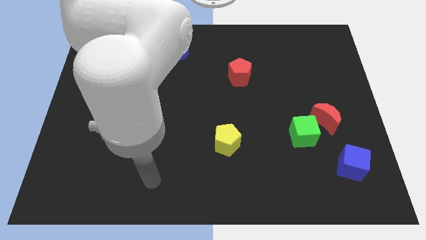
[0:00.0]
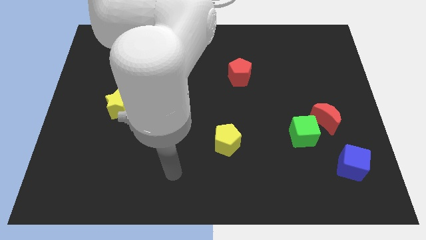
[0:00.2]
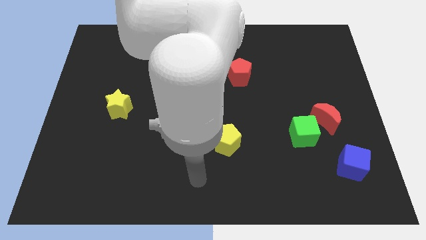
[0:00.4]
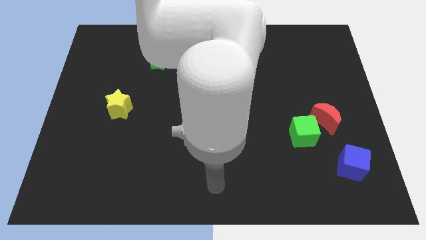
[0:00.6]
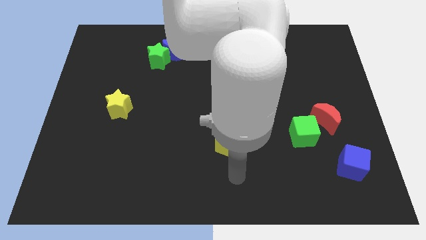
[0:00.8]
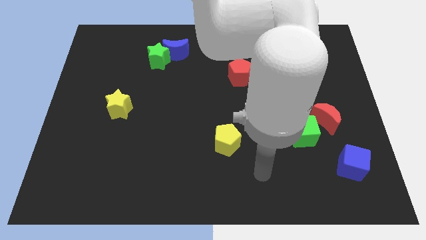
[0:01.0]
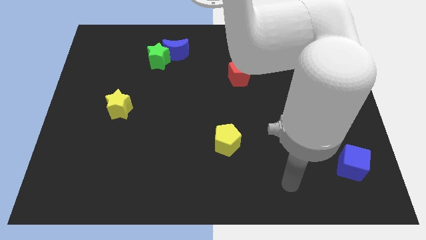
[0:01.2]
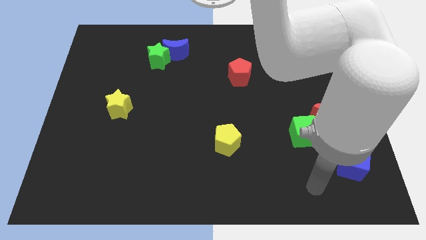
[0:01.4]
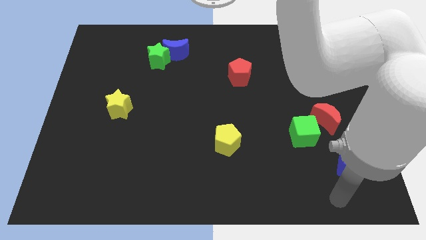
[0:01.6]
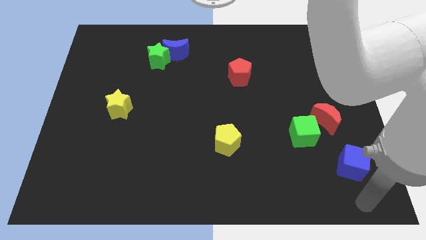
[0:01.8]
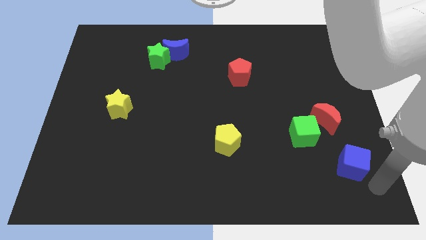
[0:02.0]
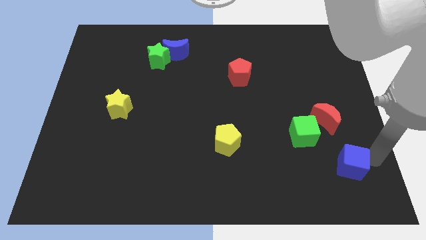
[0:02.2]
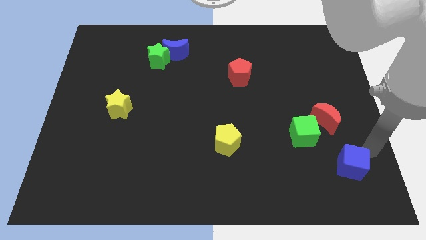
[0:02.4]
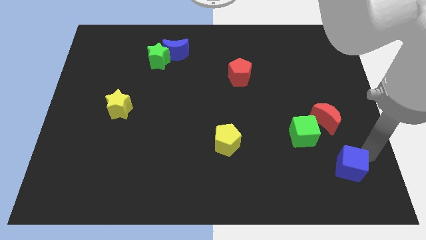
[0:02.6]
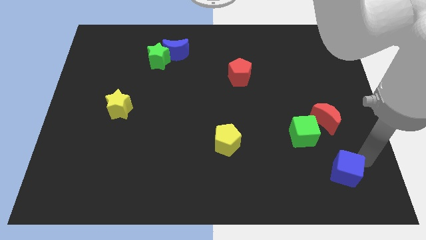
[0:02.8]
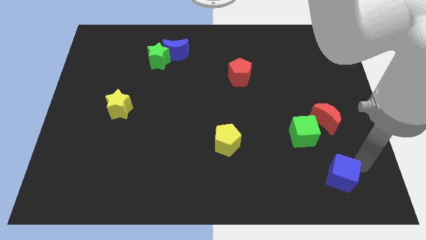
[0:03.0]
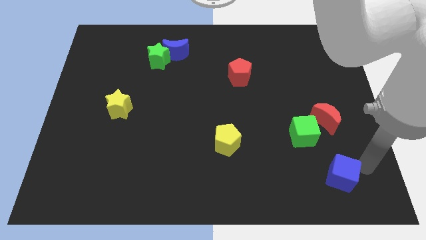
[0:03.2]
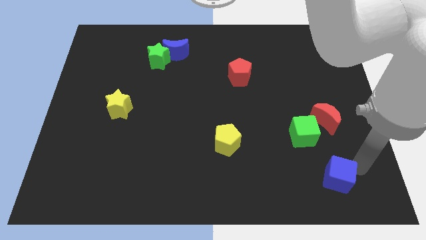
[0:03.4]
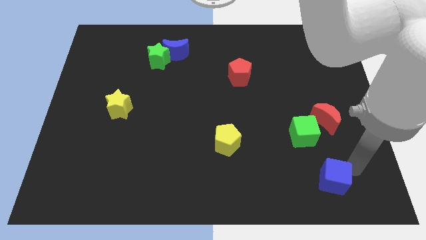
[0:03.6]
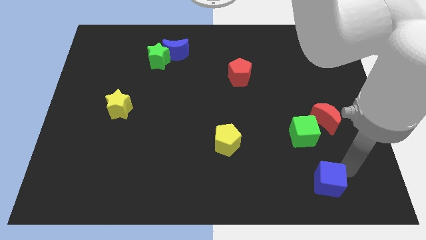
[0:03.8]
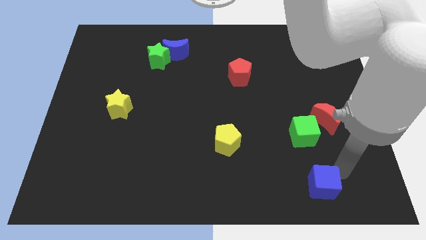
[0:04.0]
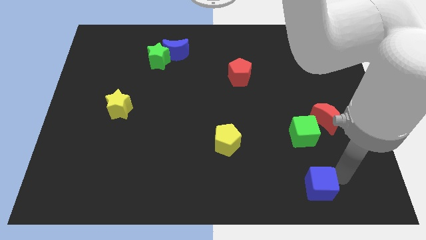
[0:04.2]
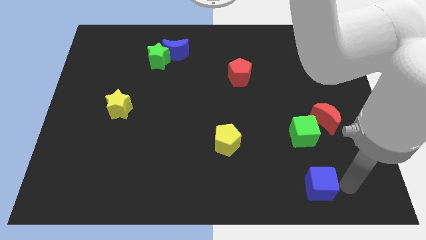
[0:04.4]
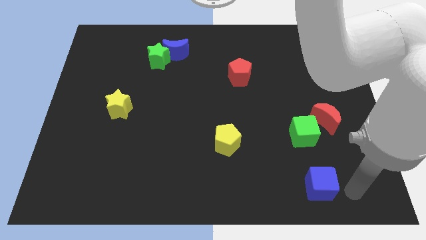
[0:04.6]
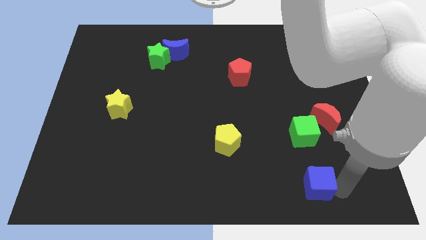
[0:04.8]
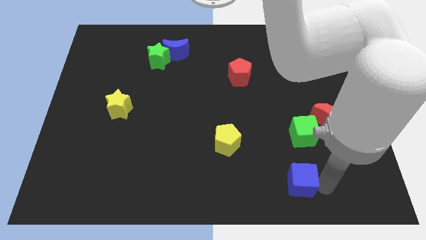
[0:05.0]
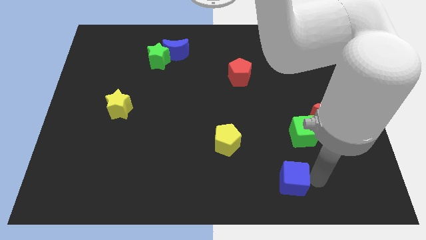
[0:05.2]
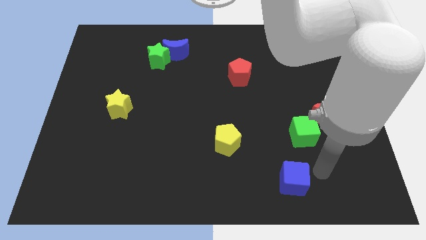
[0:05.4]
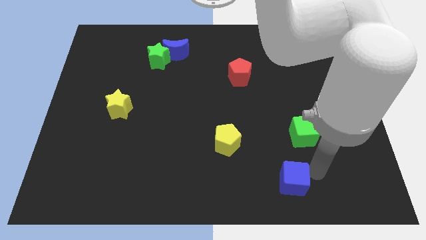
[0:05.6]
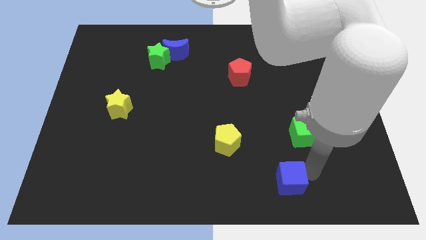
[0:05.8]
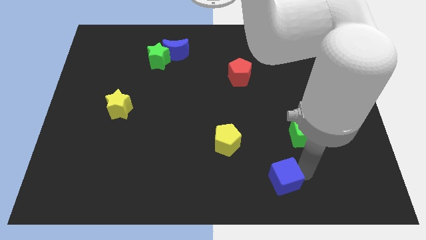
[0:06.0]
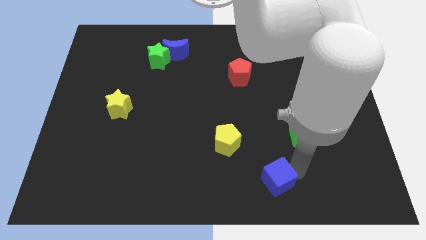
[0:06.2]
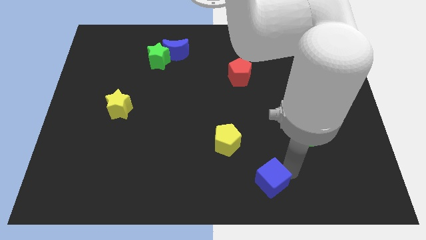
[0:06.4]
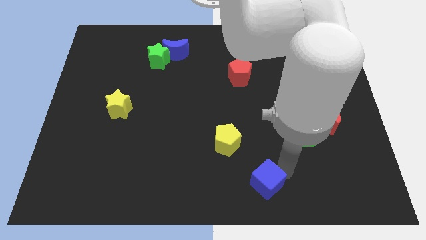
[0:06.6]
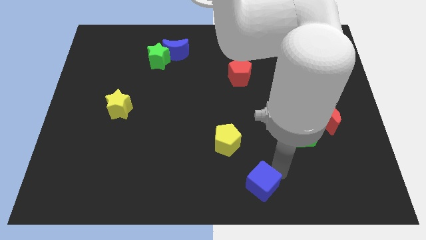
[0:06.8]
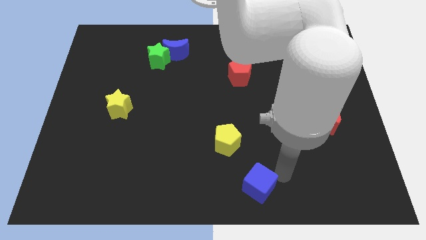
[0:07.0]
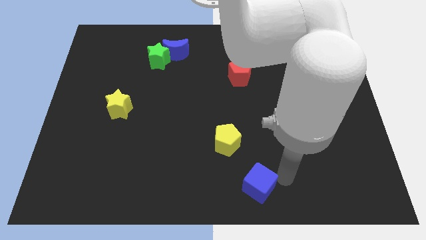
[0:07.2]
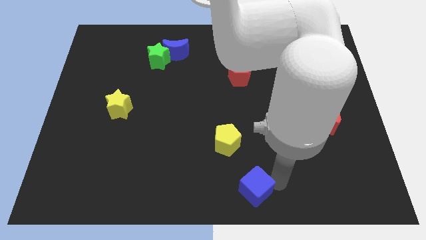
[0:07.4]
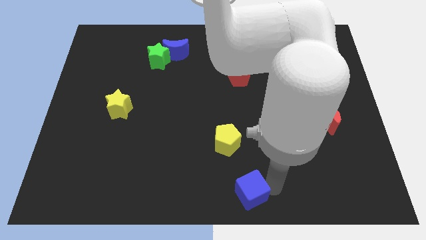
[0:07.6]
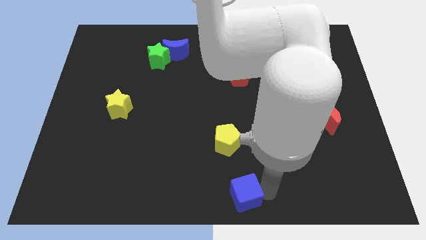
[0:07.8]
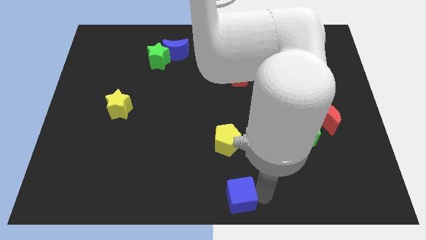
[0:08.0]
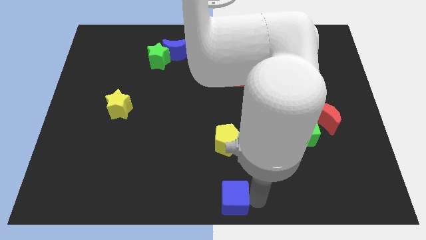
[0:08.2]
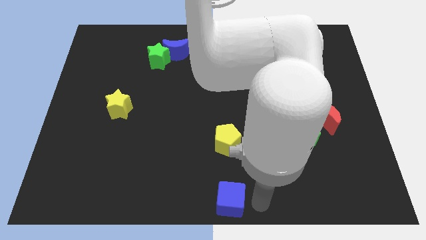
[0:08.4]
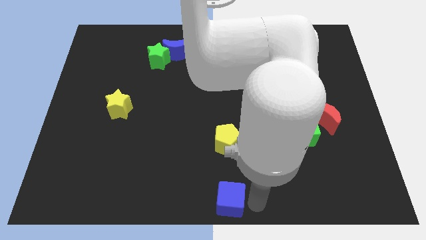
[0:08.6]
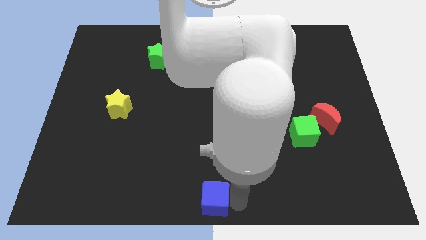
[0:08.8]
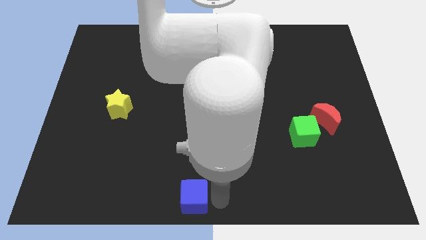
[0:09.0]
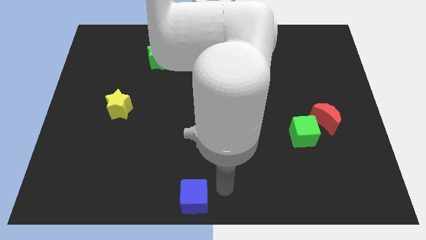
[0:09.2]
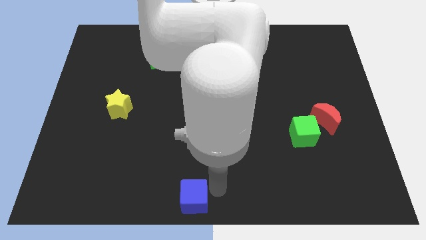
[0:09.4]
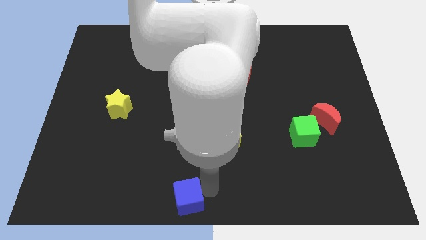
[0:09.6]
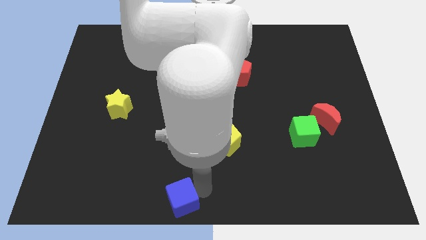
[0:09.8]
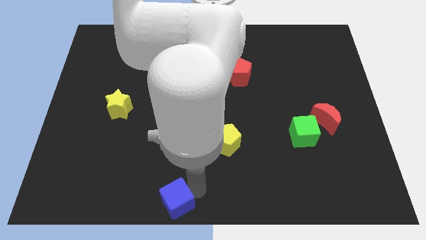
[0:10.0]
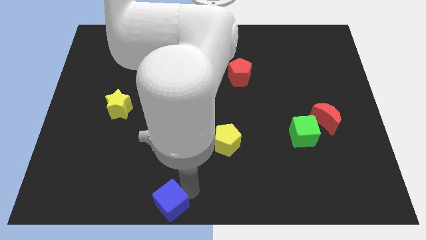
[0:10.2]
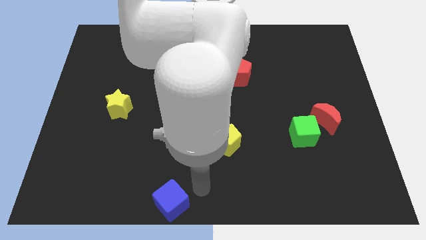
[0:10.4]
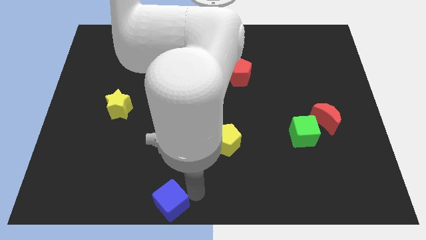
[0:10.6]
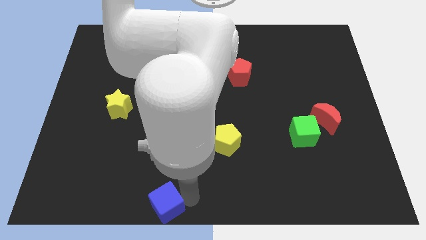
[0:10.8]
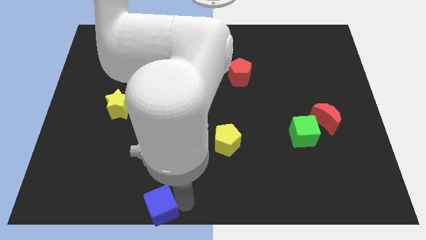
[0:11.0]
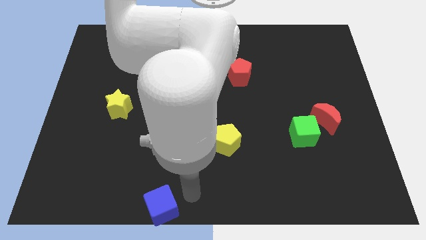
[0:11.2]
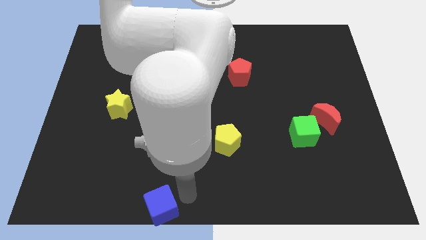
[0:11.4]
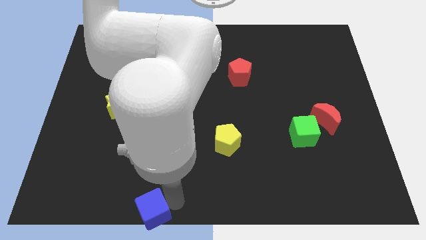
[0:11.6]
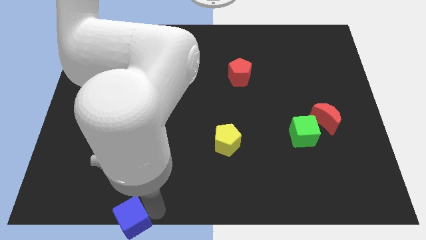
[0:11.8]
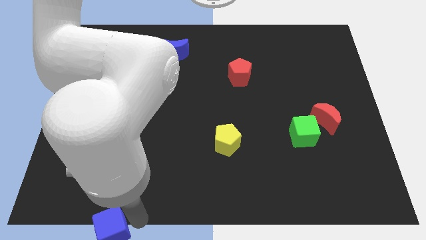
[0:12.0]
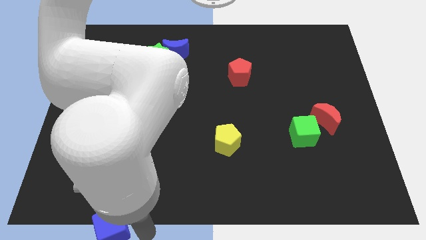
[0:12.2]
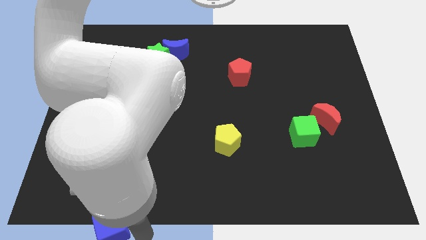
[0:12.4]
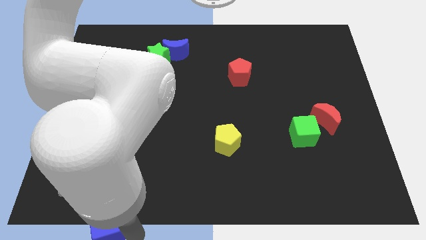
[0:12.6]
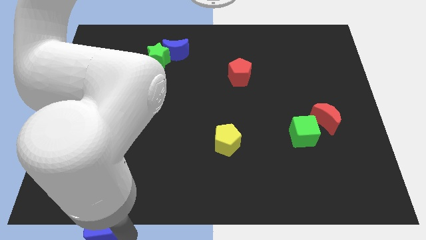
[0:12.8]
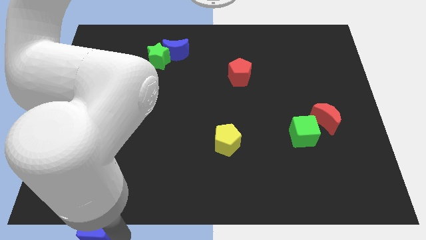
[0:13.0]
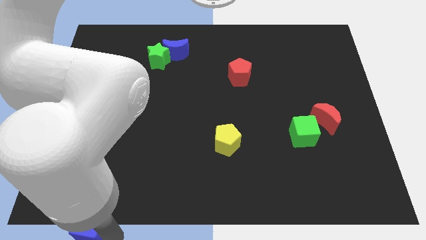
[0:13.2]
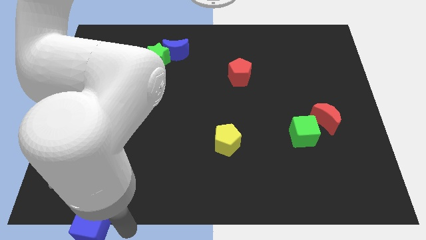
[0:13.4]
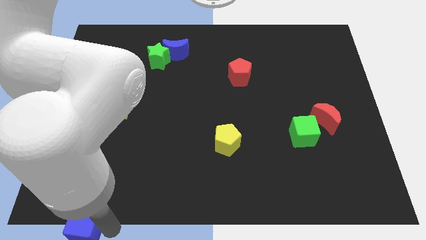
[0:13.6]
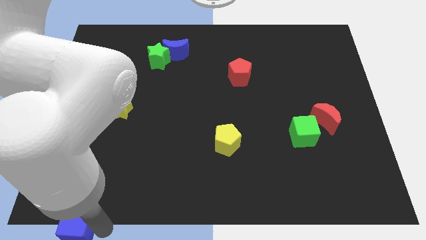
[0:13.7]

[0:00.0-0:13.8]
put the blue cube to the lower left corner
